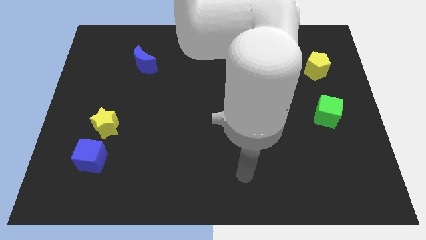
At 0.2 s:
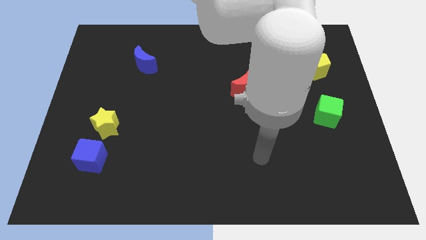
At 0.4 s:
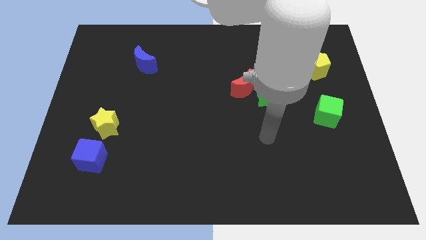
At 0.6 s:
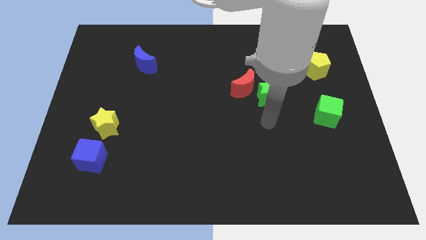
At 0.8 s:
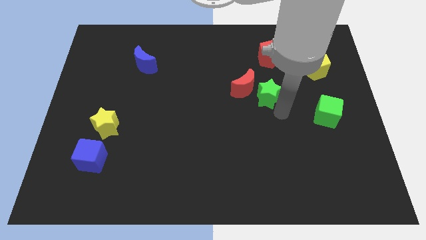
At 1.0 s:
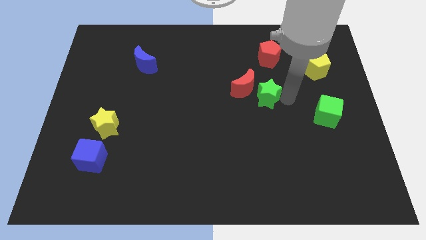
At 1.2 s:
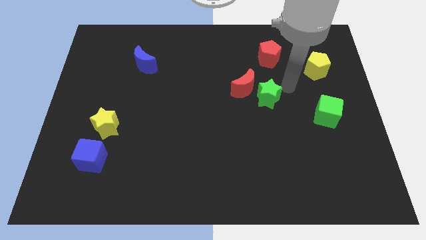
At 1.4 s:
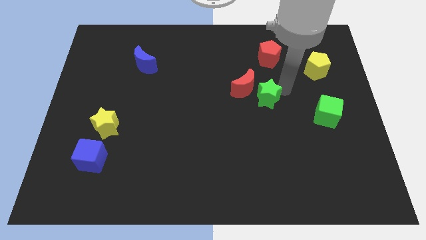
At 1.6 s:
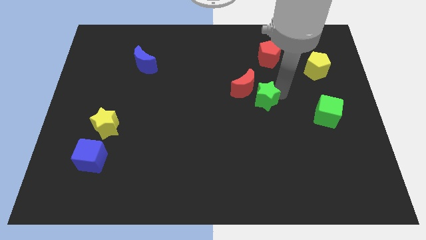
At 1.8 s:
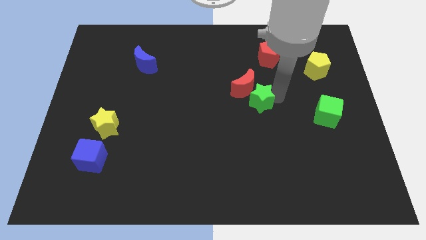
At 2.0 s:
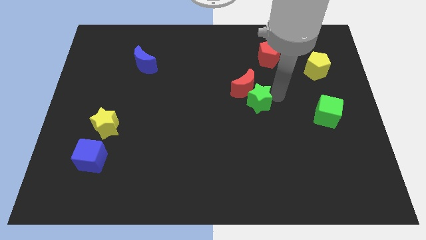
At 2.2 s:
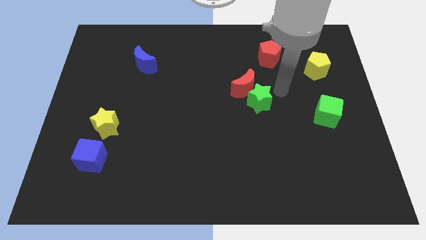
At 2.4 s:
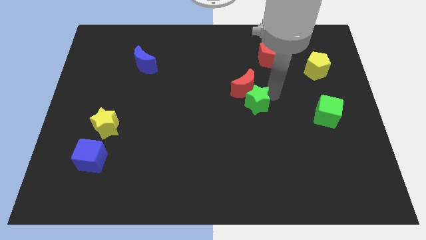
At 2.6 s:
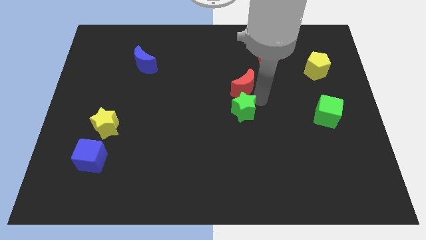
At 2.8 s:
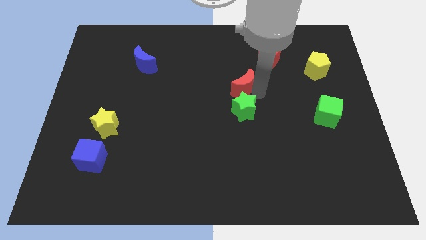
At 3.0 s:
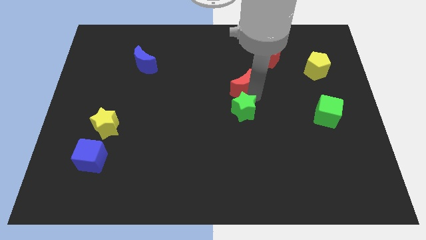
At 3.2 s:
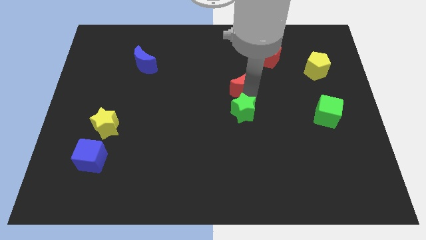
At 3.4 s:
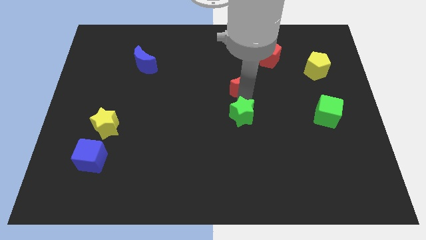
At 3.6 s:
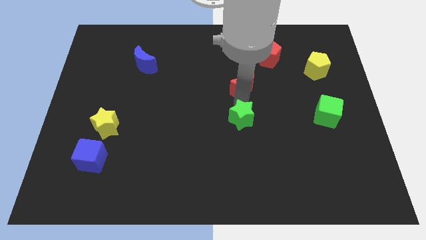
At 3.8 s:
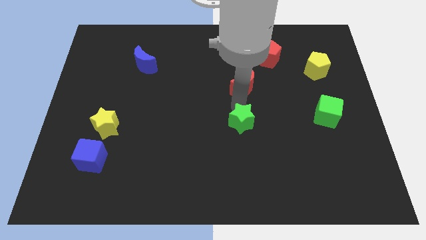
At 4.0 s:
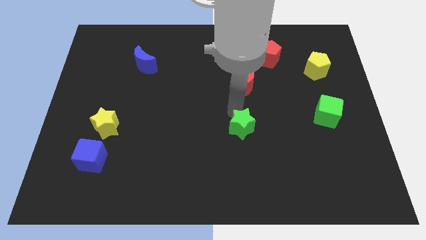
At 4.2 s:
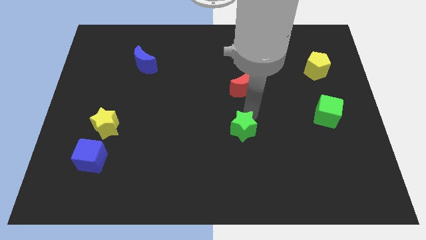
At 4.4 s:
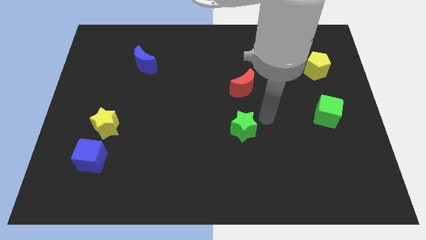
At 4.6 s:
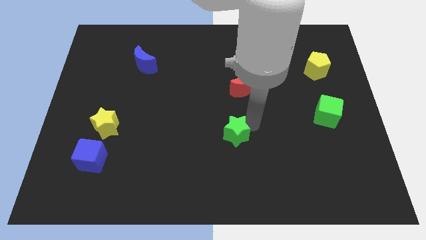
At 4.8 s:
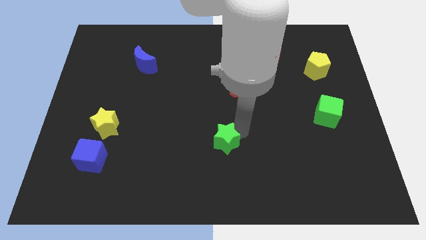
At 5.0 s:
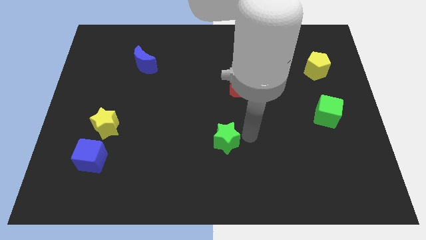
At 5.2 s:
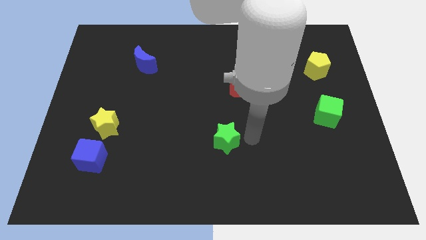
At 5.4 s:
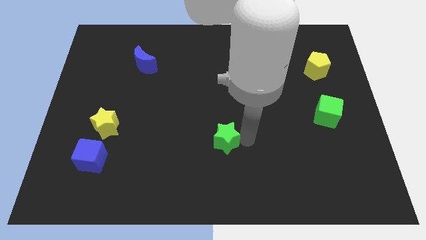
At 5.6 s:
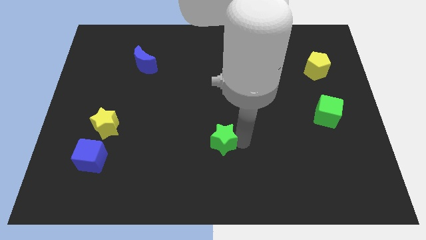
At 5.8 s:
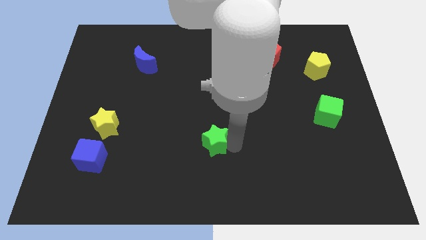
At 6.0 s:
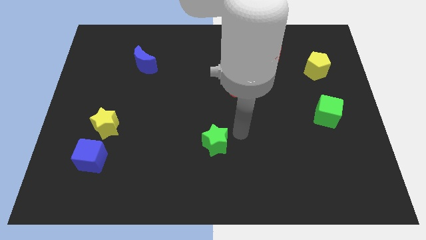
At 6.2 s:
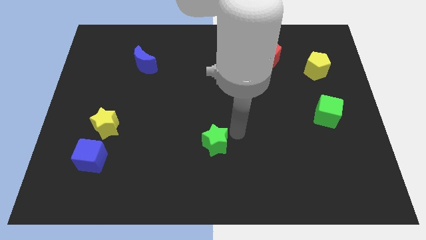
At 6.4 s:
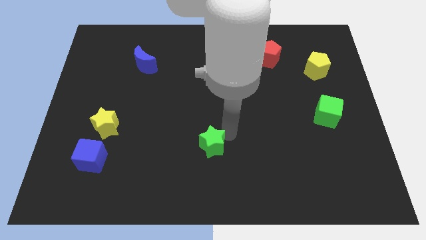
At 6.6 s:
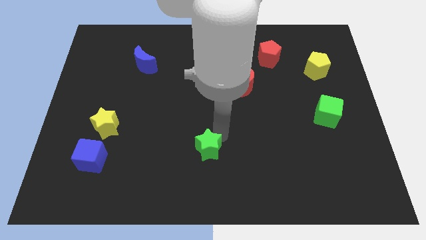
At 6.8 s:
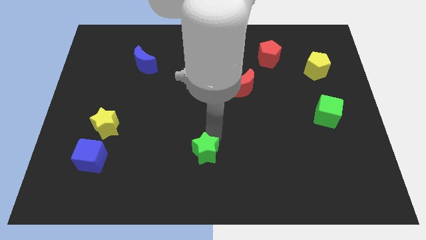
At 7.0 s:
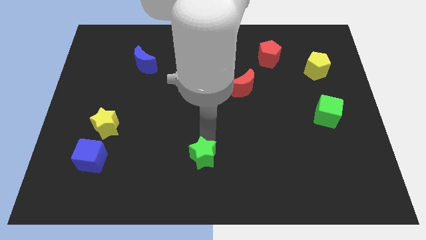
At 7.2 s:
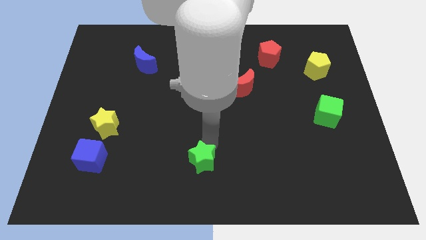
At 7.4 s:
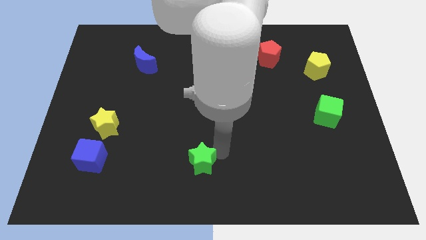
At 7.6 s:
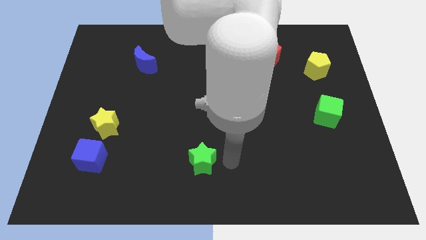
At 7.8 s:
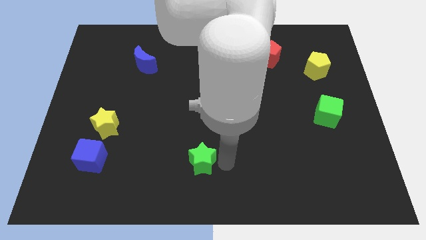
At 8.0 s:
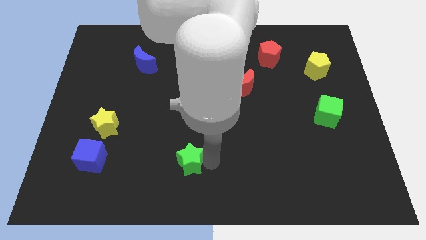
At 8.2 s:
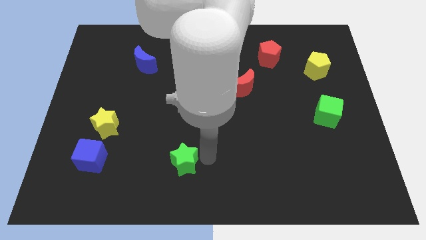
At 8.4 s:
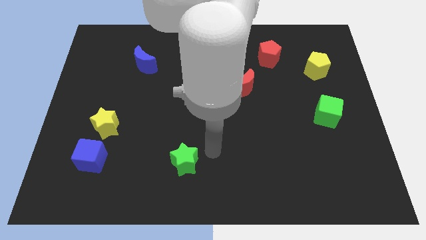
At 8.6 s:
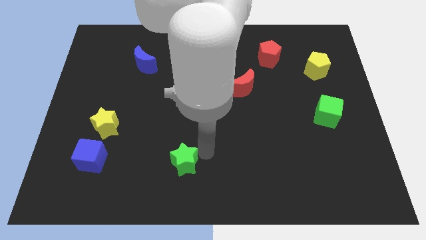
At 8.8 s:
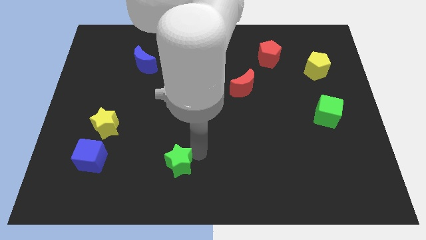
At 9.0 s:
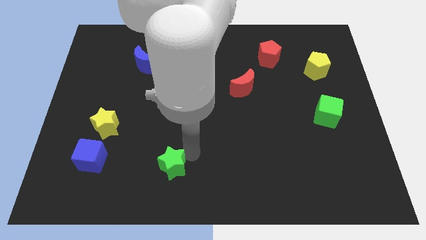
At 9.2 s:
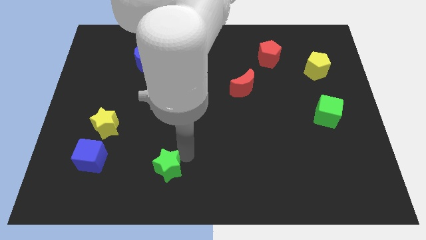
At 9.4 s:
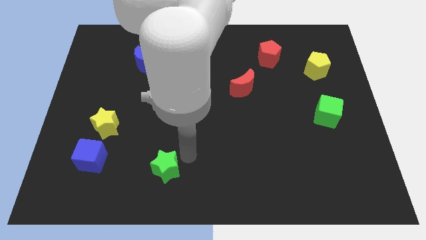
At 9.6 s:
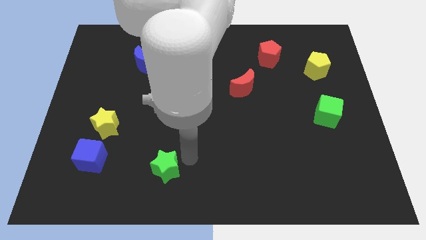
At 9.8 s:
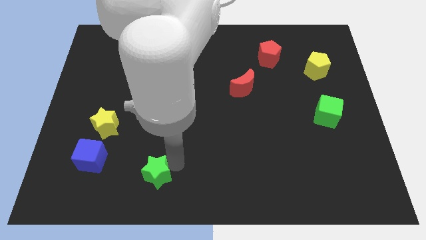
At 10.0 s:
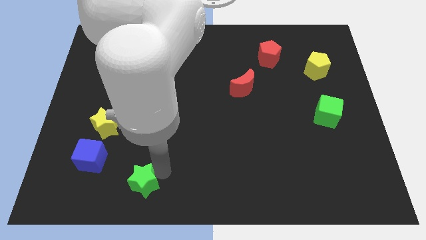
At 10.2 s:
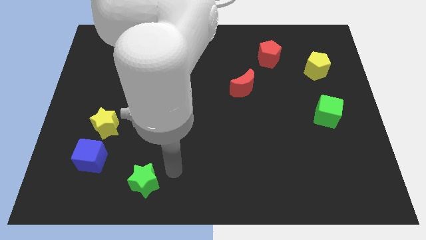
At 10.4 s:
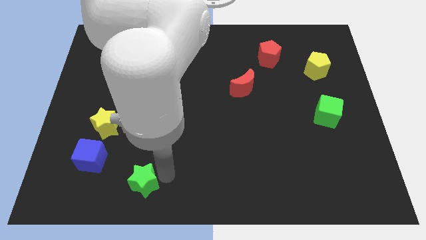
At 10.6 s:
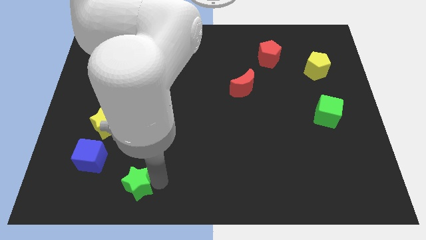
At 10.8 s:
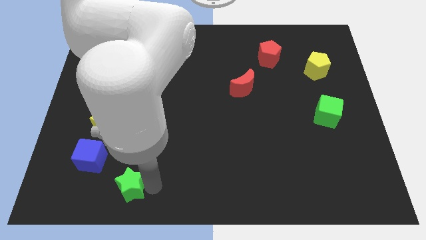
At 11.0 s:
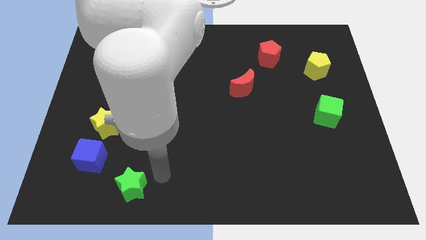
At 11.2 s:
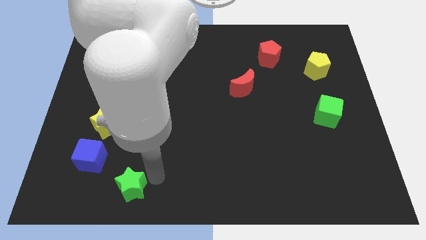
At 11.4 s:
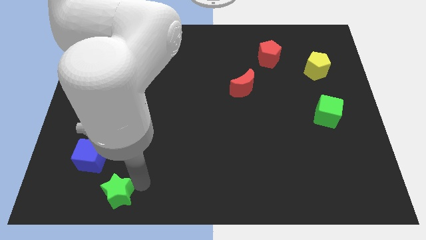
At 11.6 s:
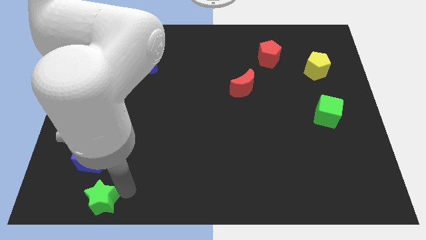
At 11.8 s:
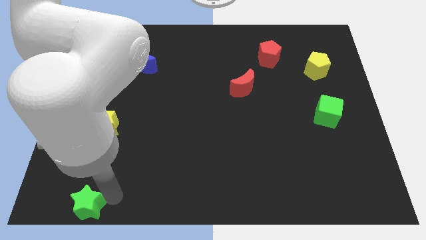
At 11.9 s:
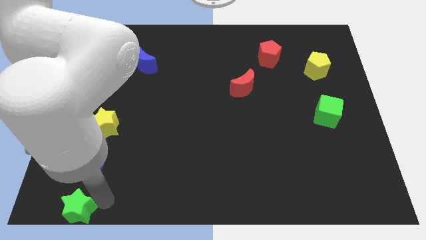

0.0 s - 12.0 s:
push the green star to the bottom left corner
